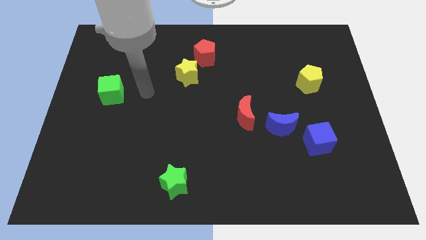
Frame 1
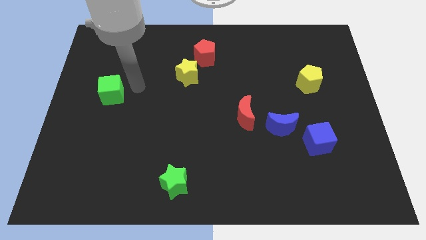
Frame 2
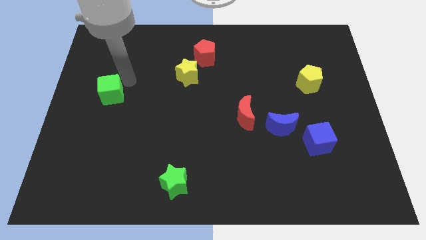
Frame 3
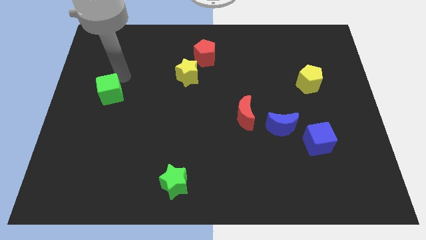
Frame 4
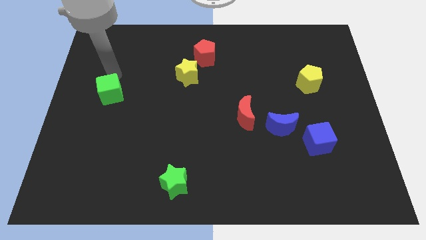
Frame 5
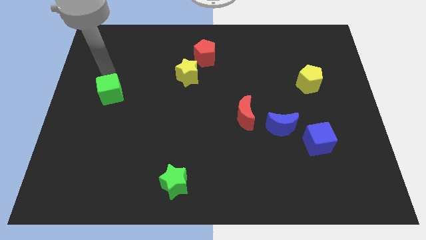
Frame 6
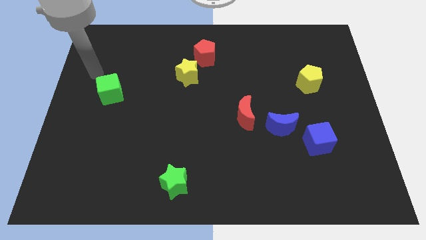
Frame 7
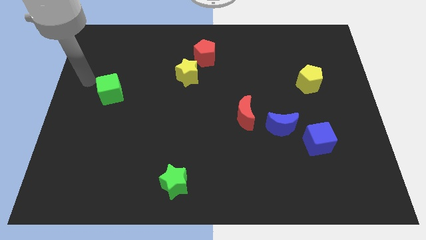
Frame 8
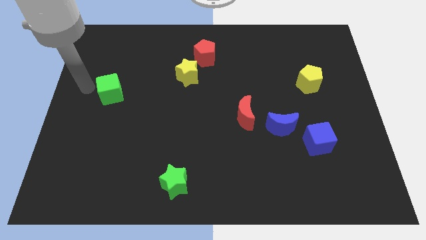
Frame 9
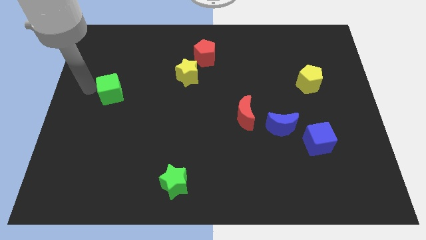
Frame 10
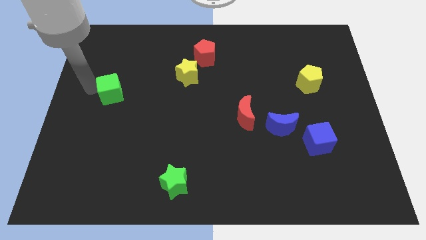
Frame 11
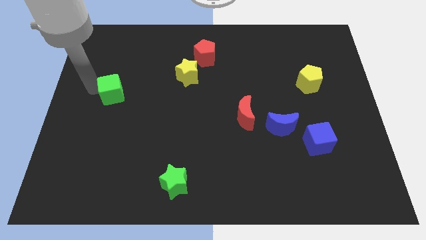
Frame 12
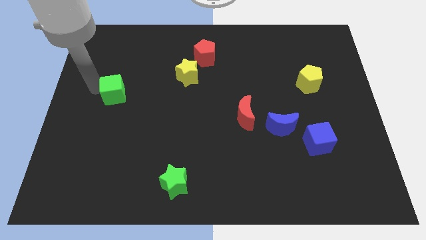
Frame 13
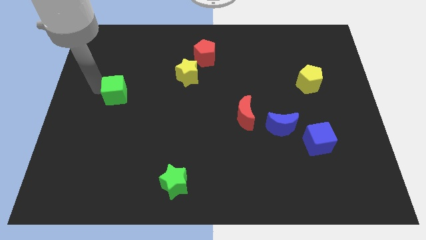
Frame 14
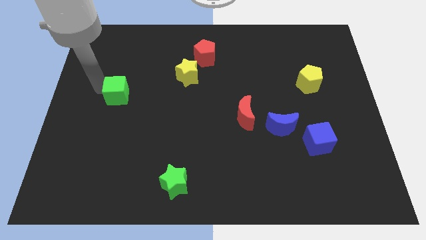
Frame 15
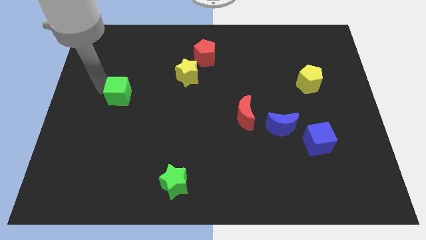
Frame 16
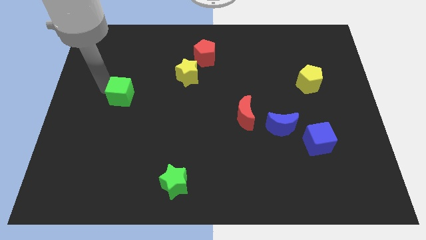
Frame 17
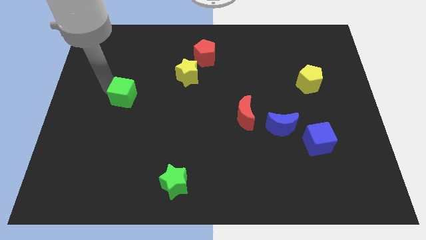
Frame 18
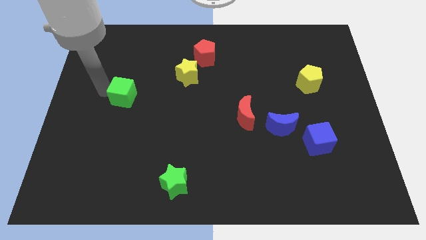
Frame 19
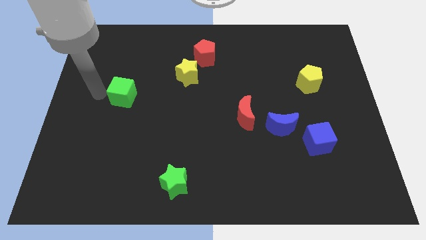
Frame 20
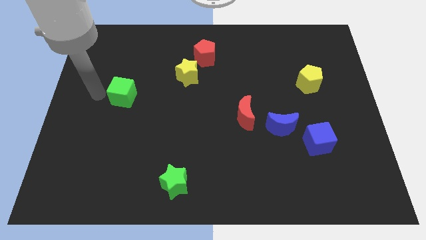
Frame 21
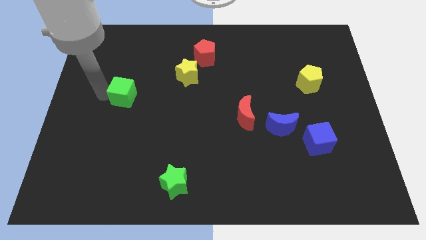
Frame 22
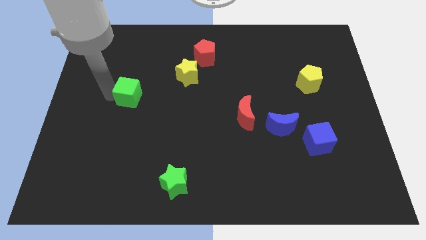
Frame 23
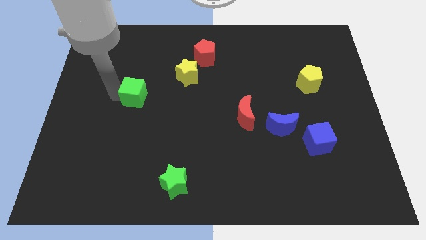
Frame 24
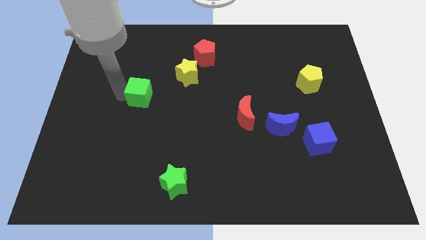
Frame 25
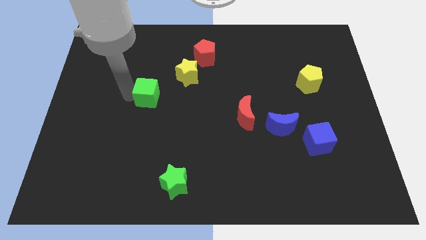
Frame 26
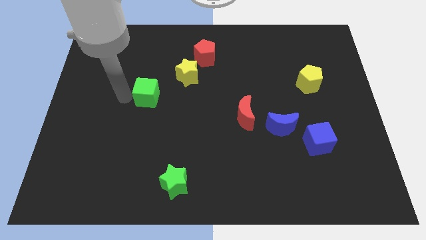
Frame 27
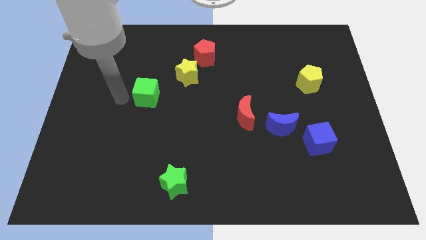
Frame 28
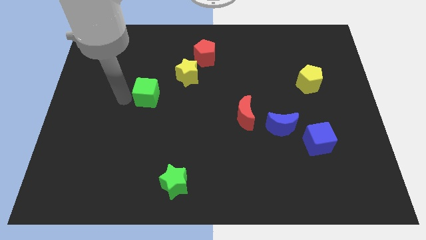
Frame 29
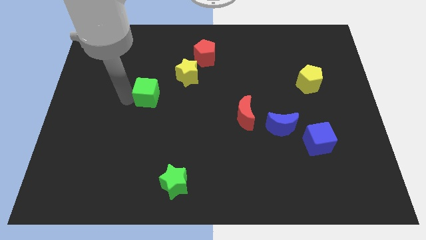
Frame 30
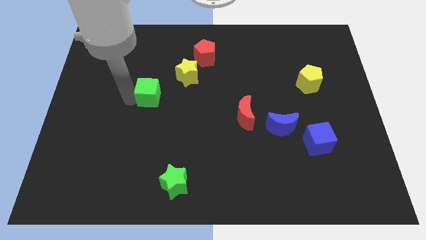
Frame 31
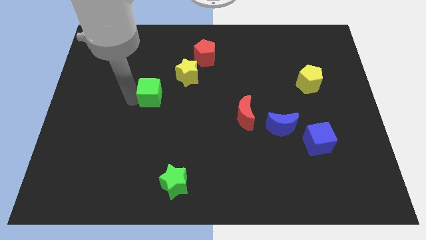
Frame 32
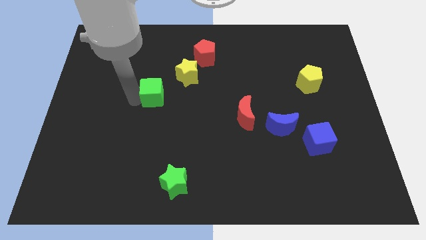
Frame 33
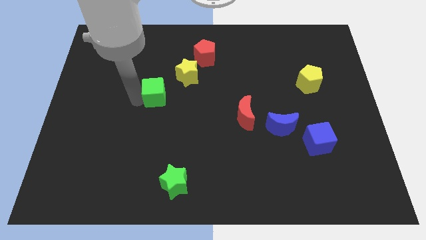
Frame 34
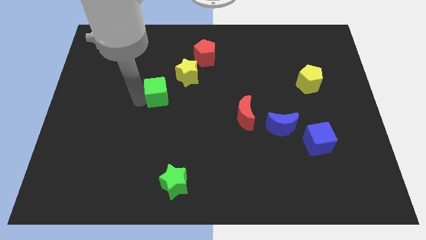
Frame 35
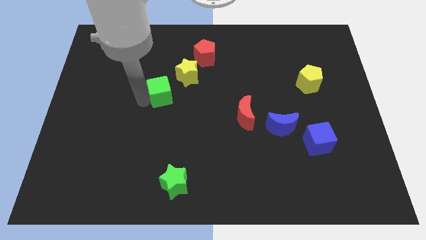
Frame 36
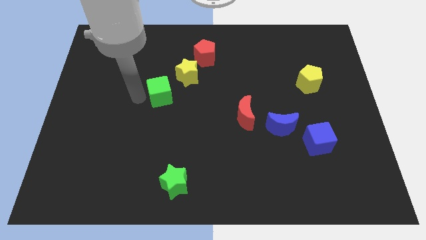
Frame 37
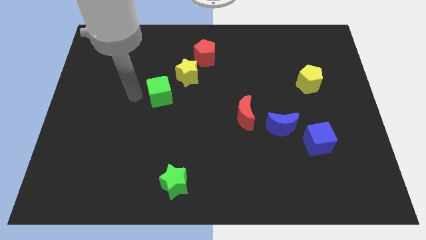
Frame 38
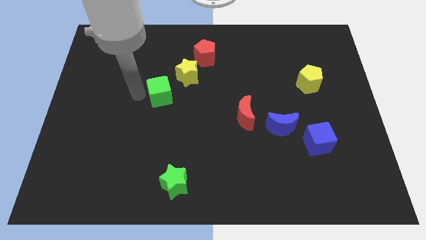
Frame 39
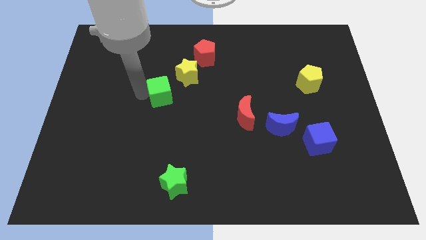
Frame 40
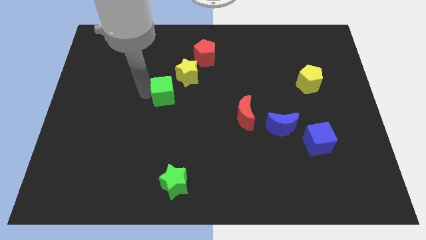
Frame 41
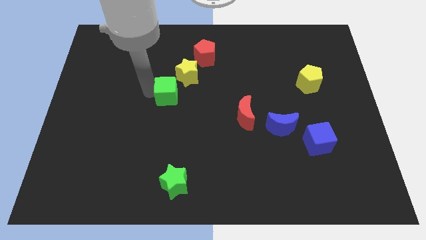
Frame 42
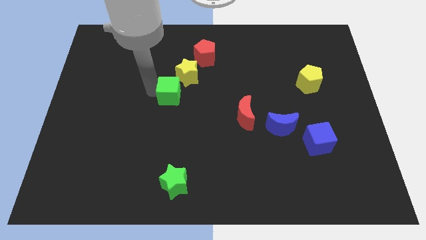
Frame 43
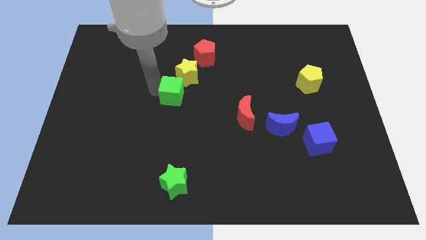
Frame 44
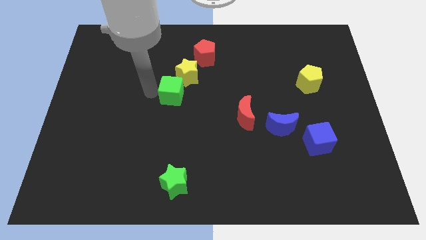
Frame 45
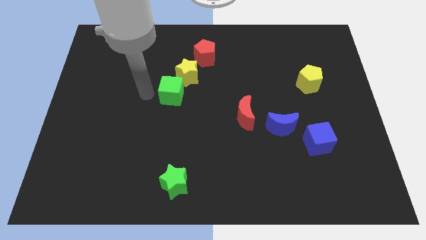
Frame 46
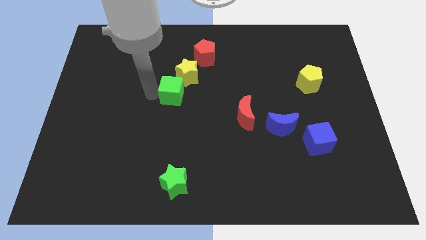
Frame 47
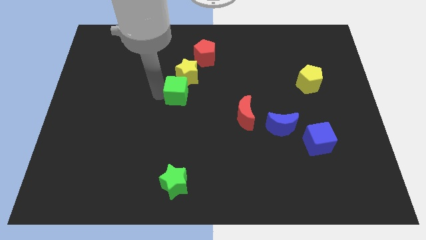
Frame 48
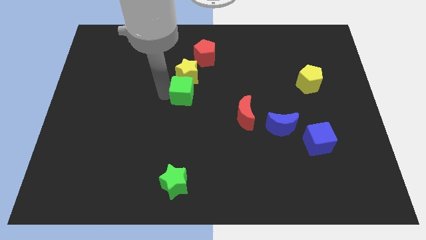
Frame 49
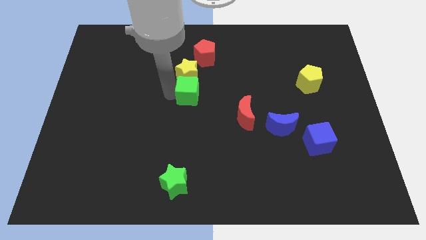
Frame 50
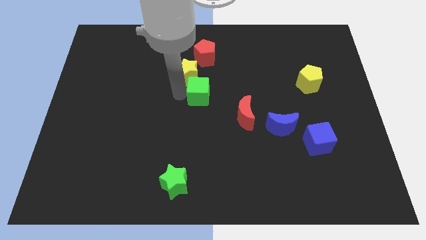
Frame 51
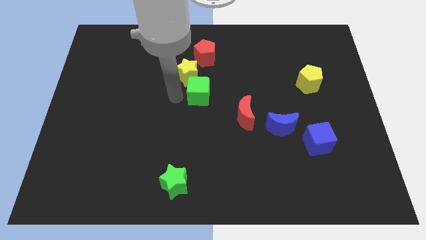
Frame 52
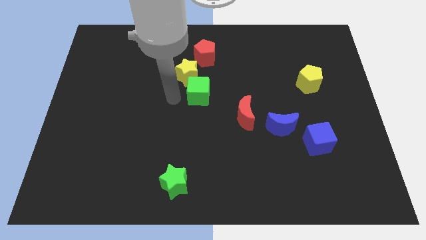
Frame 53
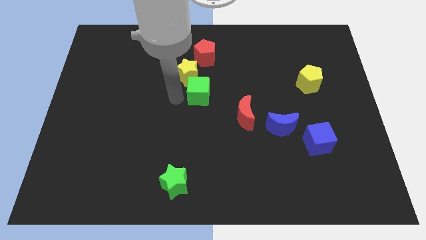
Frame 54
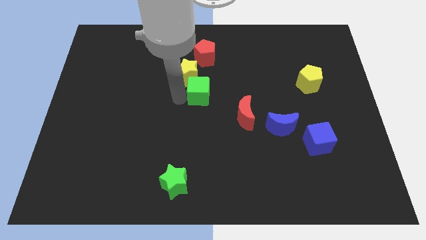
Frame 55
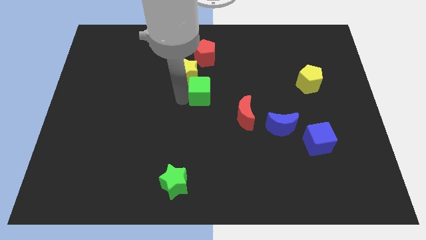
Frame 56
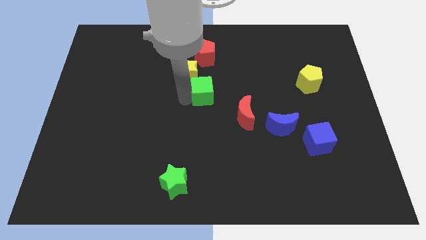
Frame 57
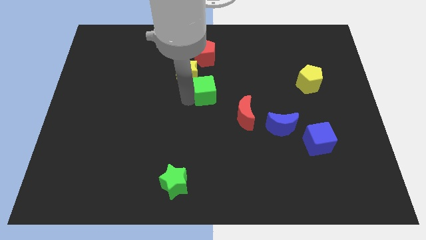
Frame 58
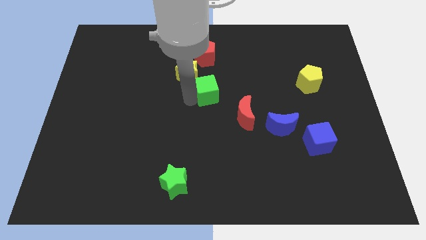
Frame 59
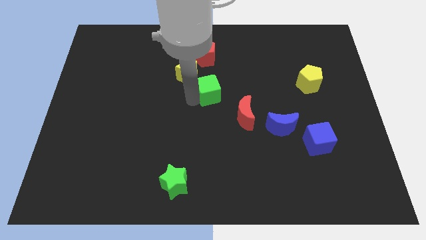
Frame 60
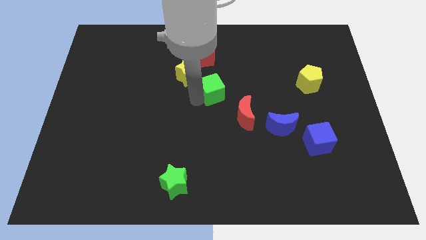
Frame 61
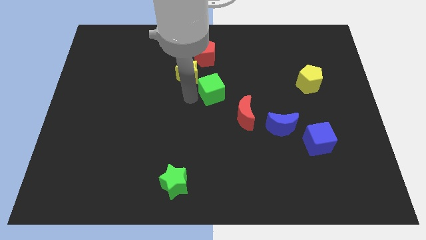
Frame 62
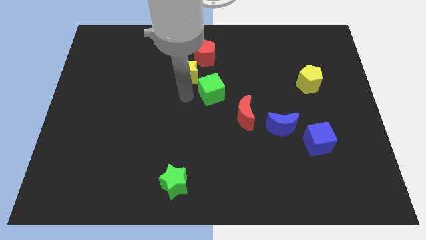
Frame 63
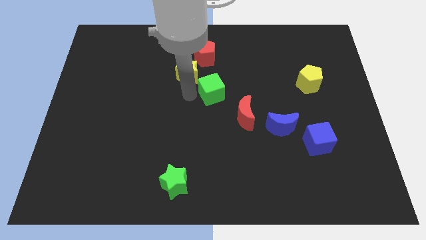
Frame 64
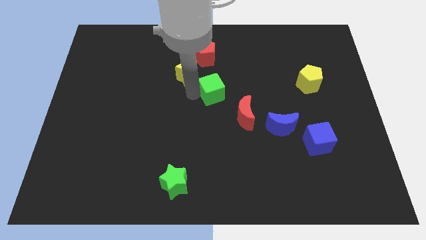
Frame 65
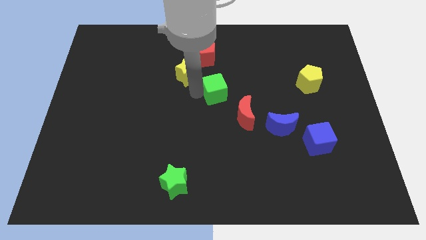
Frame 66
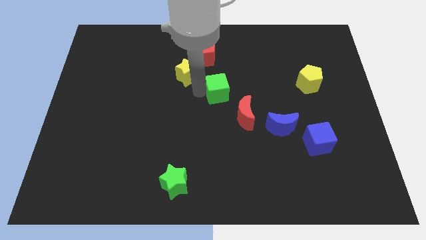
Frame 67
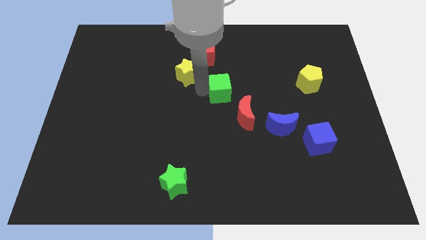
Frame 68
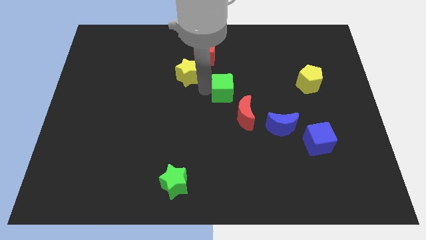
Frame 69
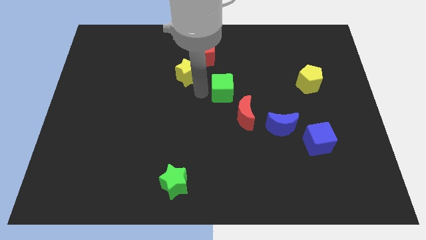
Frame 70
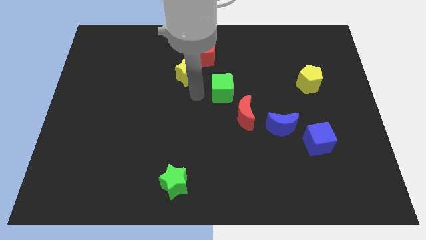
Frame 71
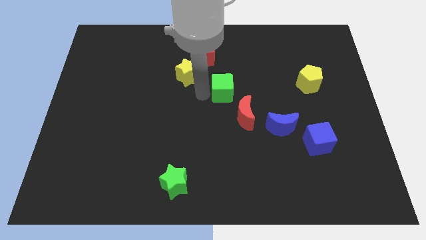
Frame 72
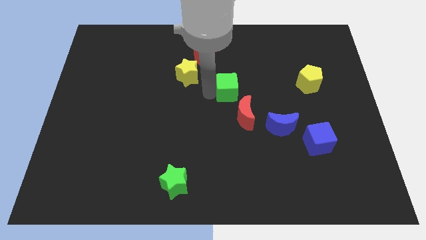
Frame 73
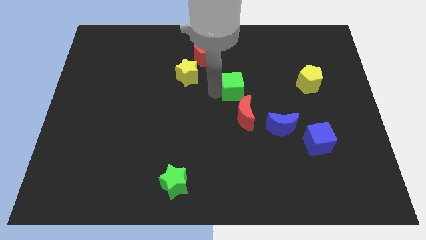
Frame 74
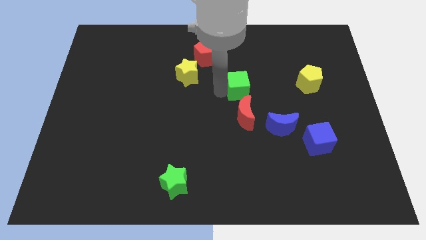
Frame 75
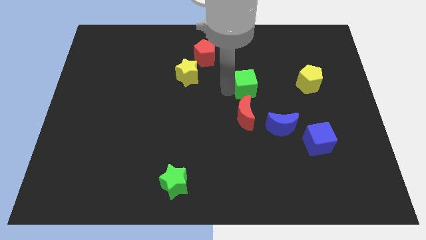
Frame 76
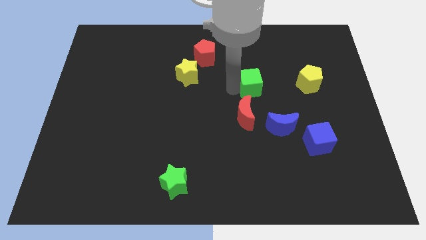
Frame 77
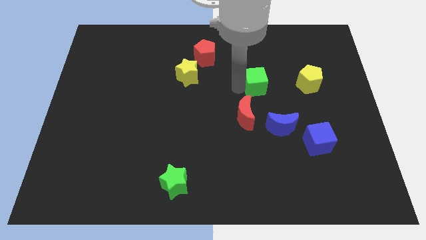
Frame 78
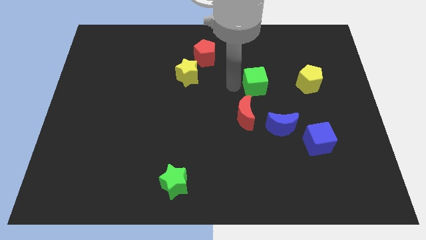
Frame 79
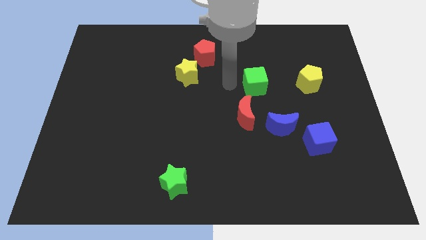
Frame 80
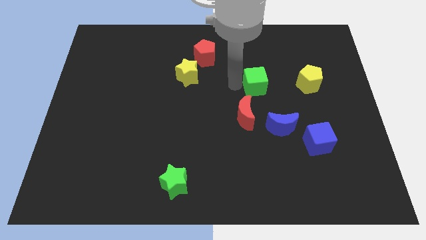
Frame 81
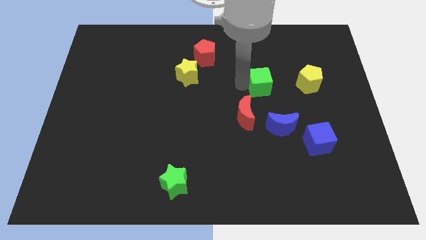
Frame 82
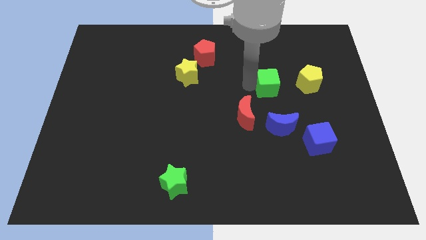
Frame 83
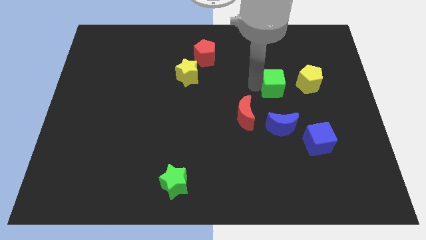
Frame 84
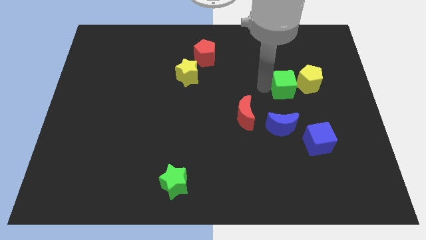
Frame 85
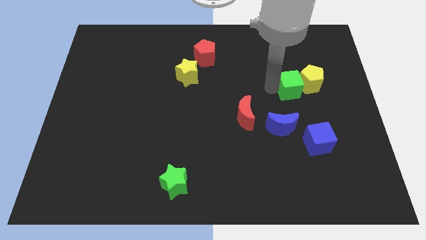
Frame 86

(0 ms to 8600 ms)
slide the green cube towards the yellow pentagon
